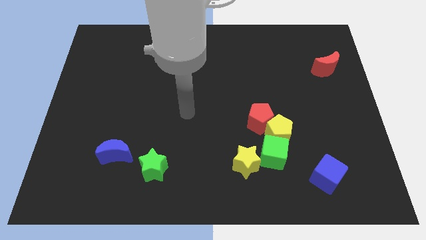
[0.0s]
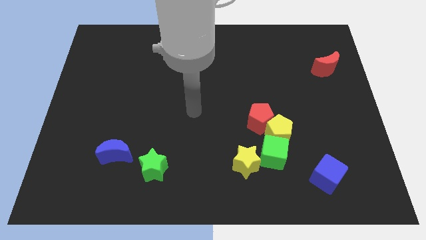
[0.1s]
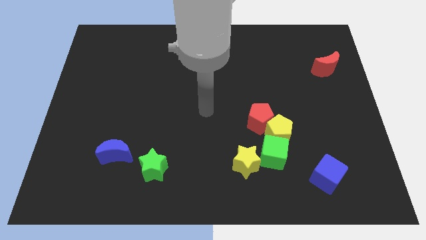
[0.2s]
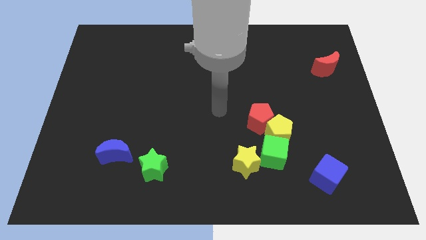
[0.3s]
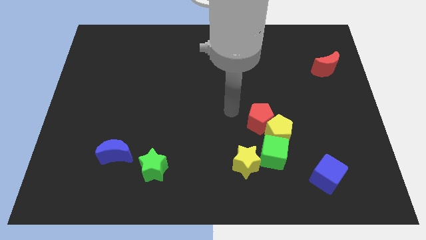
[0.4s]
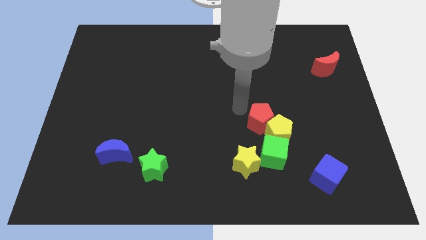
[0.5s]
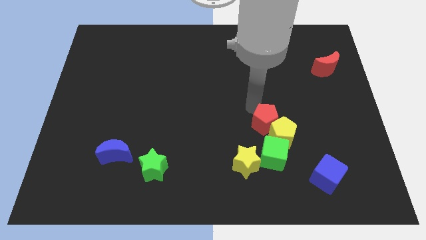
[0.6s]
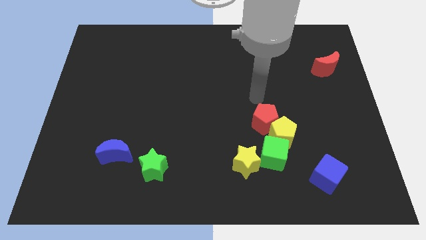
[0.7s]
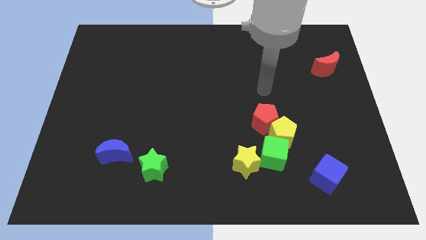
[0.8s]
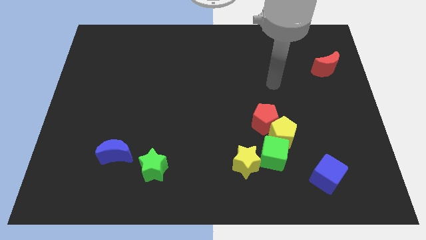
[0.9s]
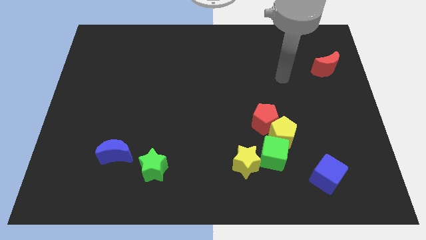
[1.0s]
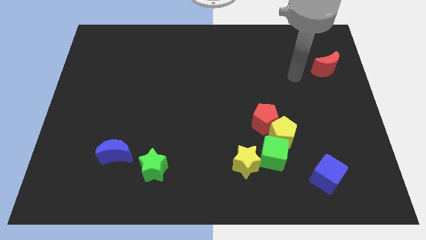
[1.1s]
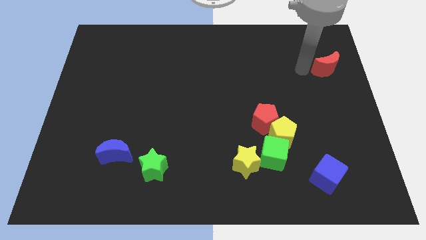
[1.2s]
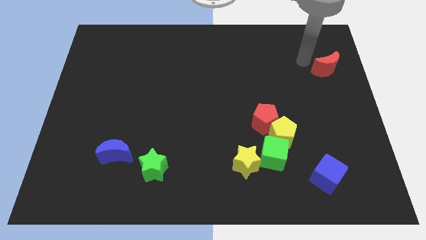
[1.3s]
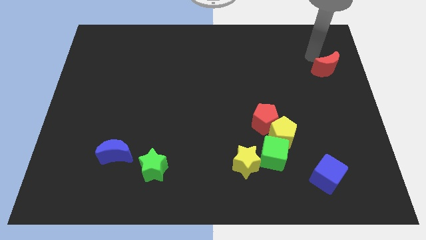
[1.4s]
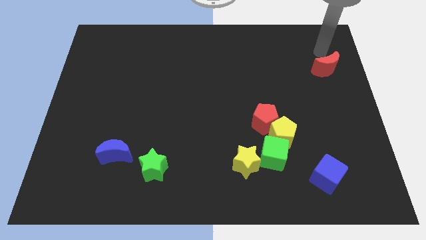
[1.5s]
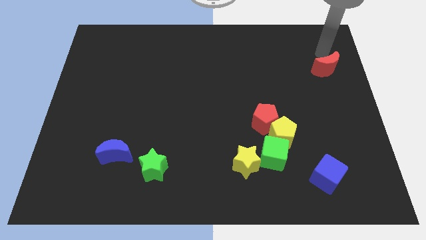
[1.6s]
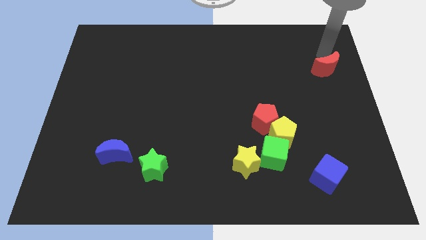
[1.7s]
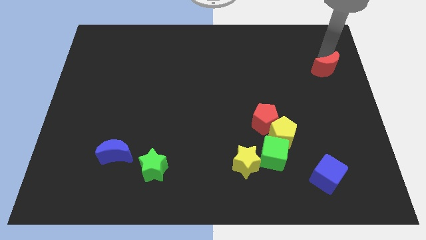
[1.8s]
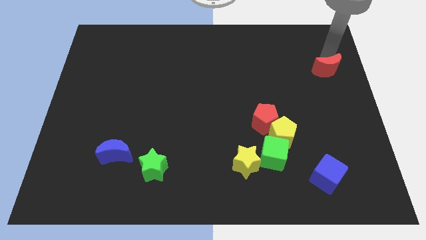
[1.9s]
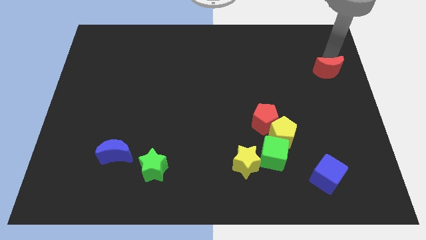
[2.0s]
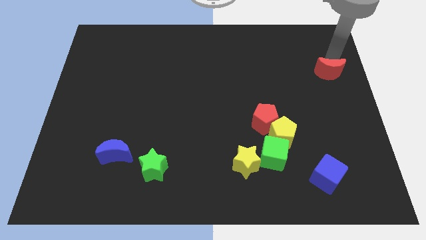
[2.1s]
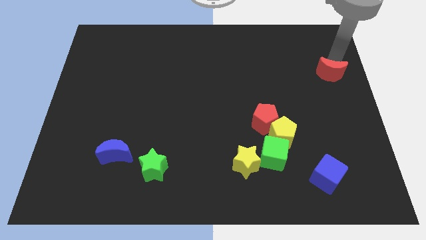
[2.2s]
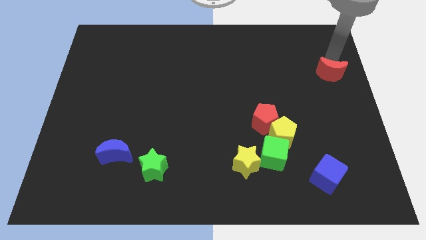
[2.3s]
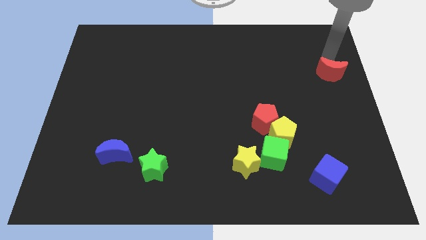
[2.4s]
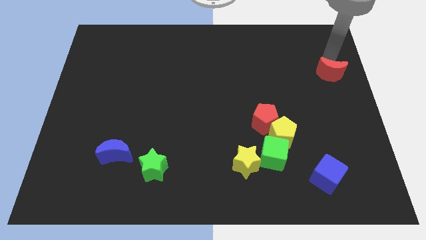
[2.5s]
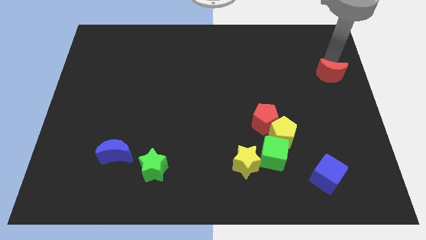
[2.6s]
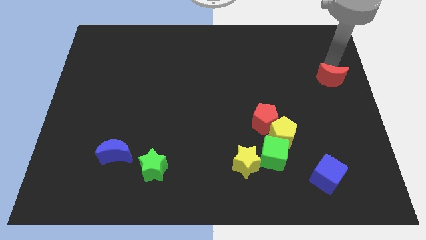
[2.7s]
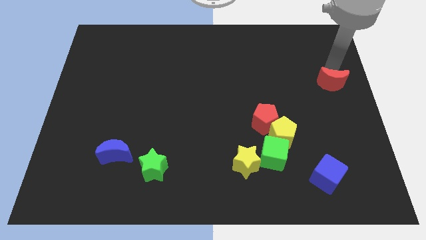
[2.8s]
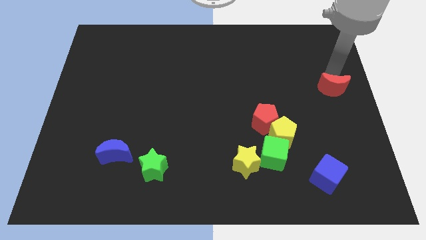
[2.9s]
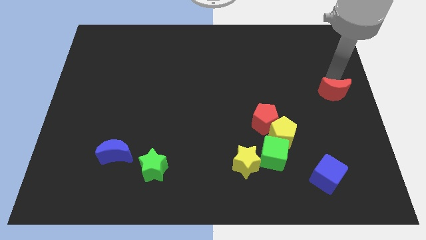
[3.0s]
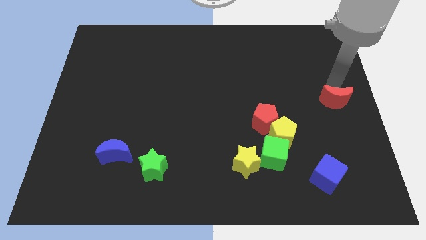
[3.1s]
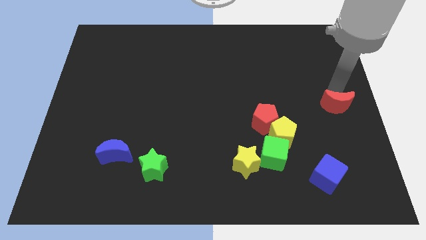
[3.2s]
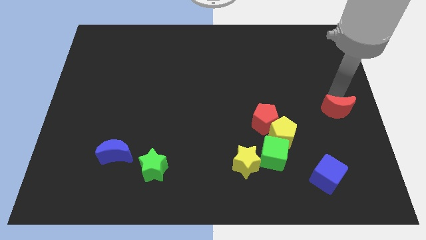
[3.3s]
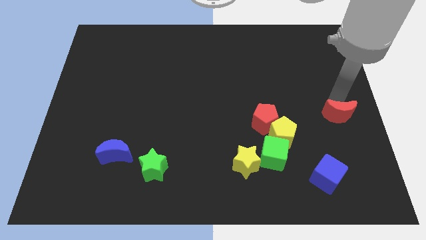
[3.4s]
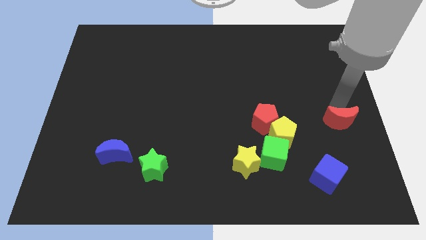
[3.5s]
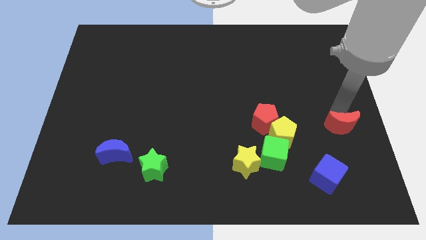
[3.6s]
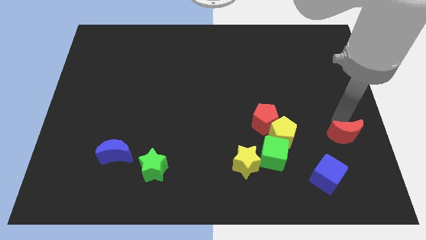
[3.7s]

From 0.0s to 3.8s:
push the red moon down

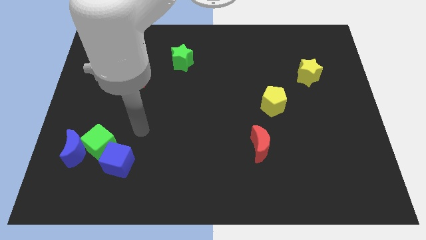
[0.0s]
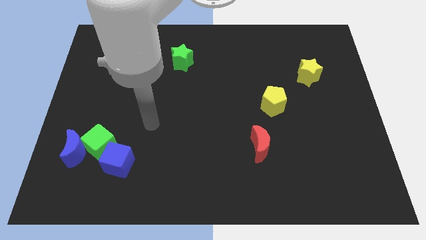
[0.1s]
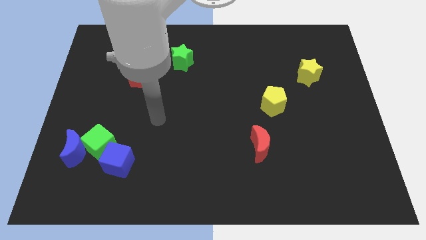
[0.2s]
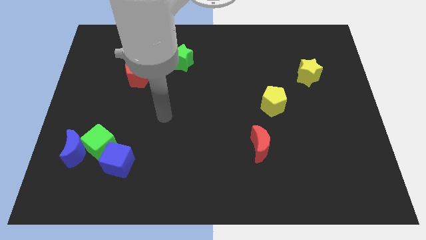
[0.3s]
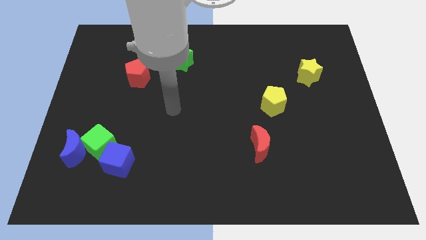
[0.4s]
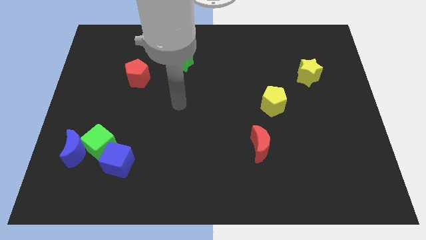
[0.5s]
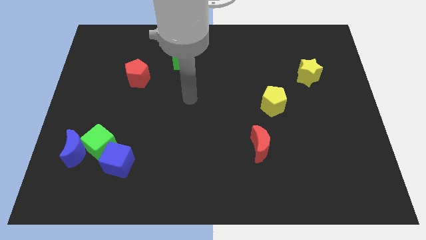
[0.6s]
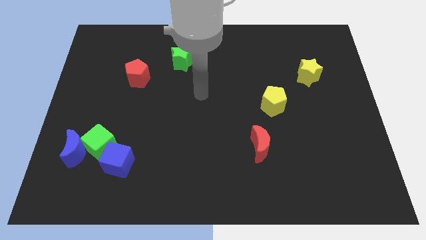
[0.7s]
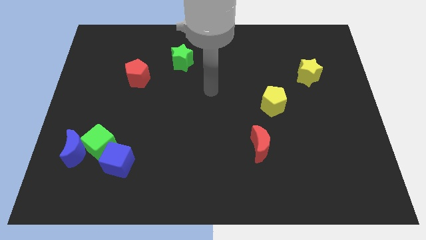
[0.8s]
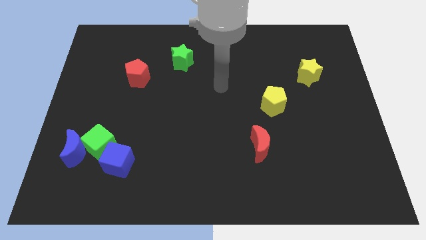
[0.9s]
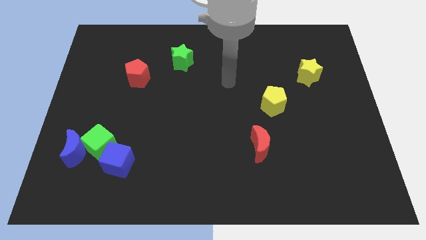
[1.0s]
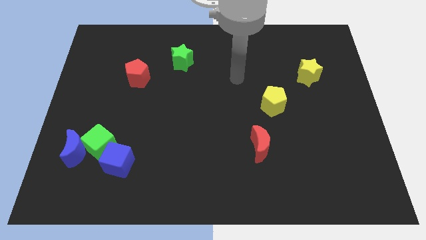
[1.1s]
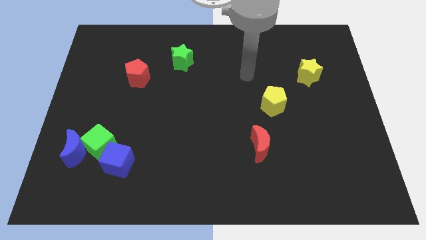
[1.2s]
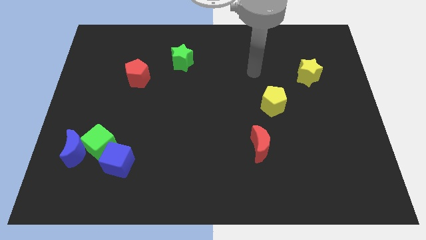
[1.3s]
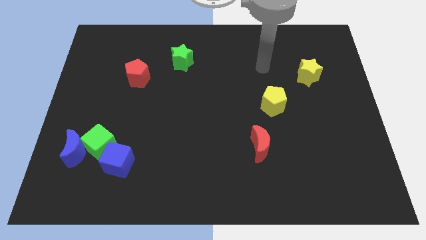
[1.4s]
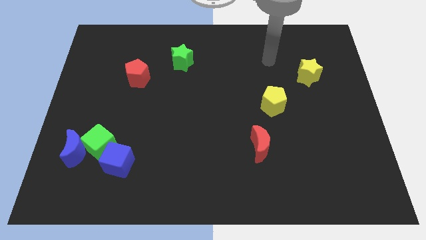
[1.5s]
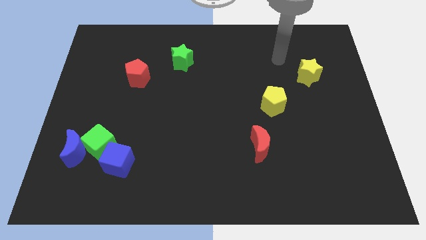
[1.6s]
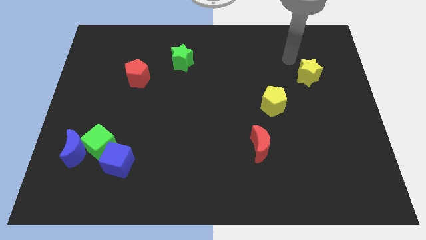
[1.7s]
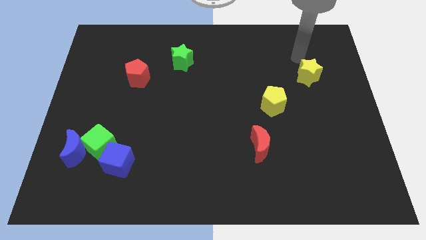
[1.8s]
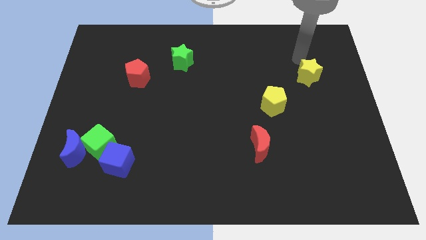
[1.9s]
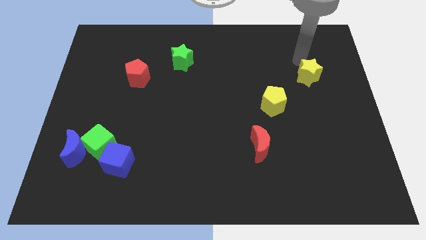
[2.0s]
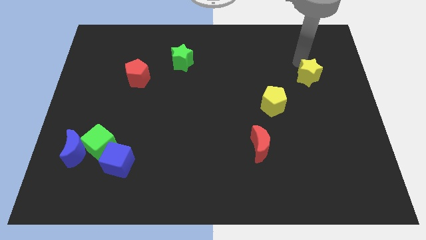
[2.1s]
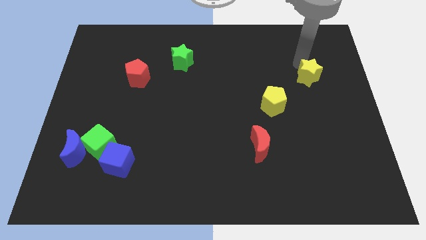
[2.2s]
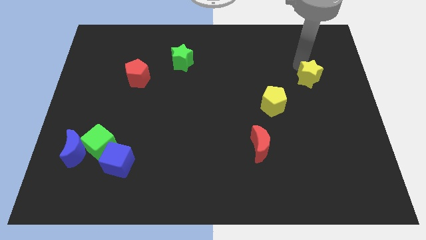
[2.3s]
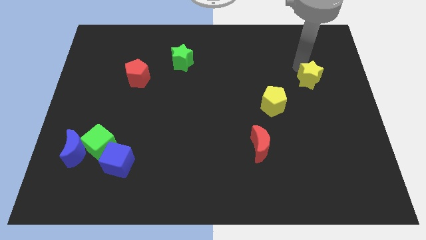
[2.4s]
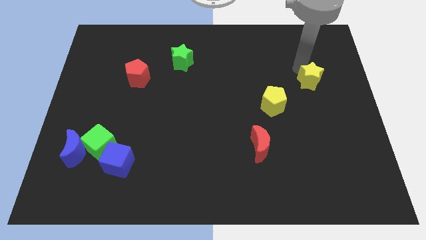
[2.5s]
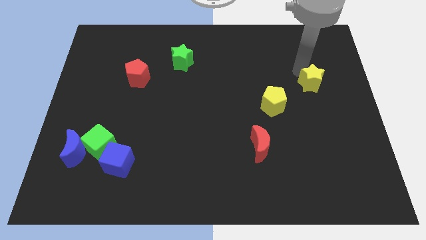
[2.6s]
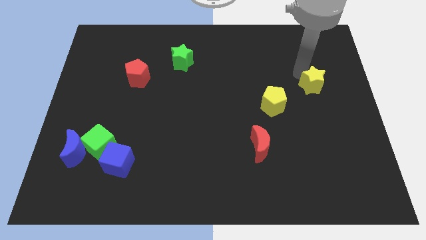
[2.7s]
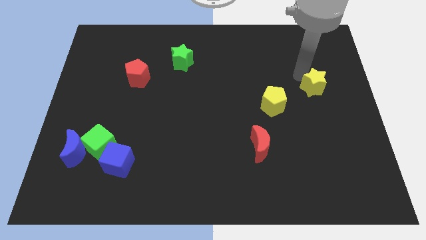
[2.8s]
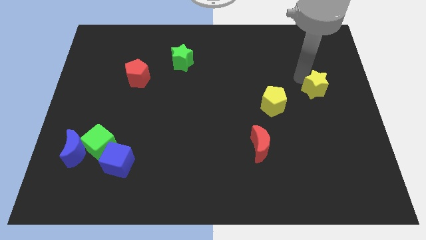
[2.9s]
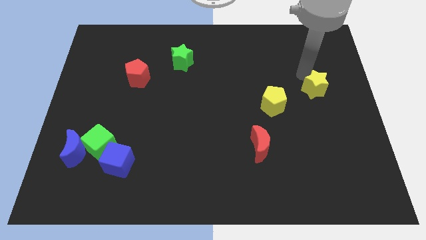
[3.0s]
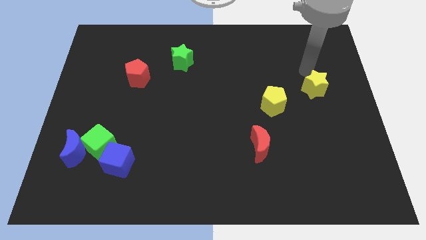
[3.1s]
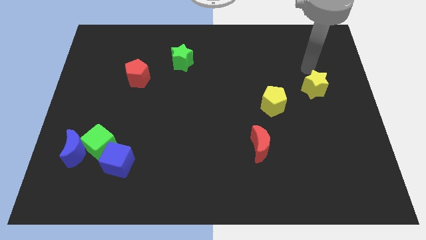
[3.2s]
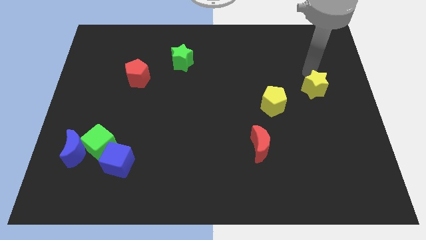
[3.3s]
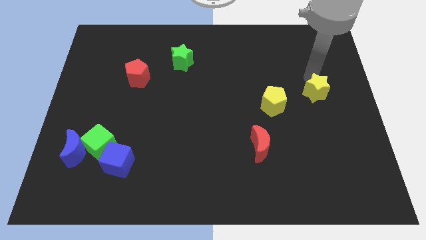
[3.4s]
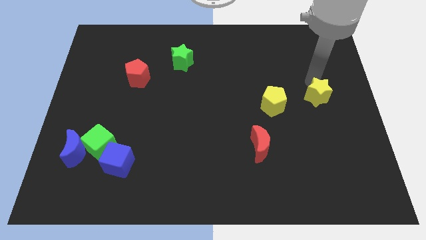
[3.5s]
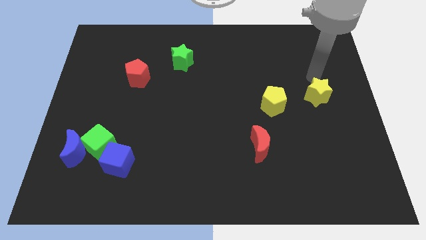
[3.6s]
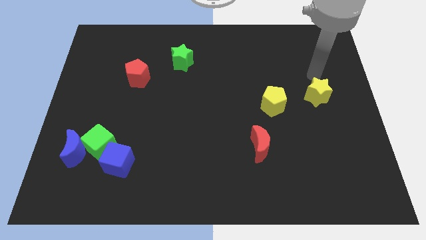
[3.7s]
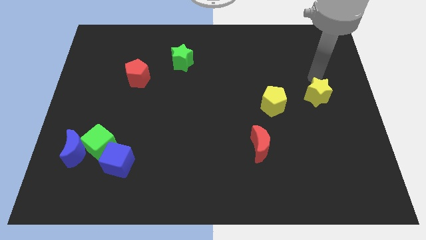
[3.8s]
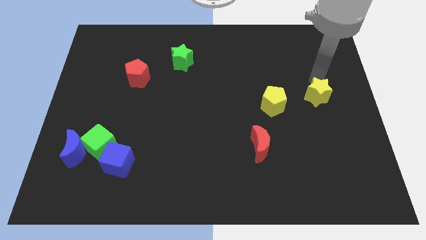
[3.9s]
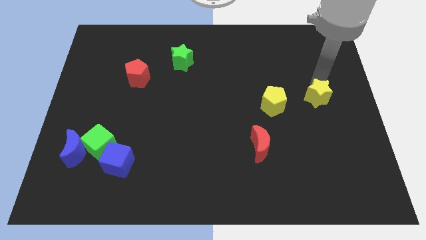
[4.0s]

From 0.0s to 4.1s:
slide the yellow star slightly downwards

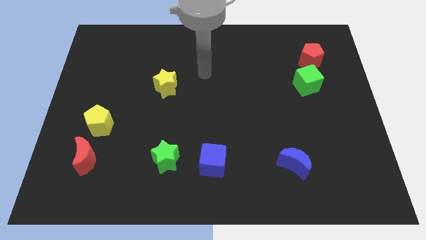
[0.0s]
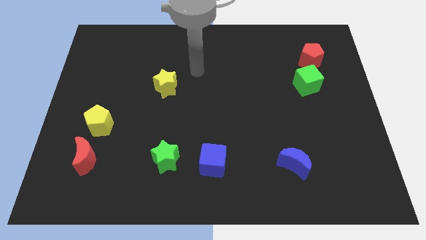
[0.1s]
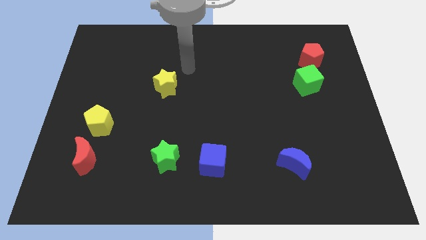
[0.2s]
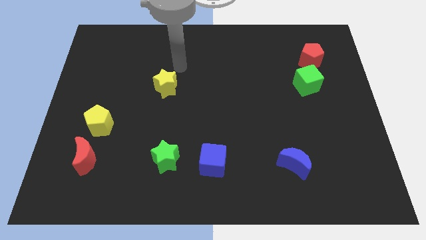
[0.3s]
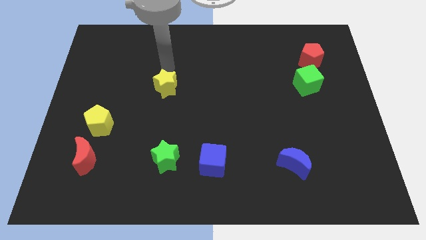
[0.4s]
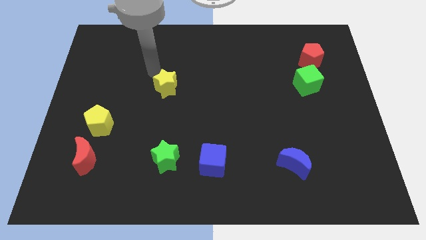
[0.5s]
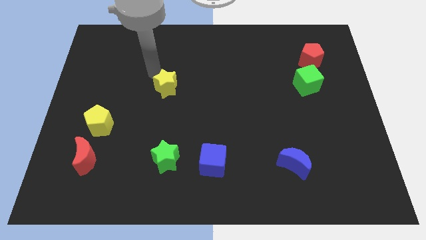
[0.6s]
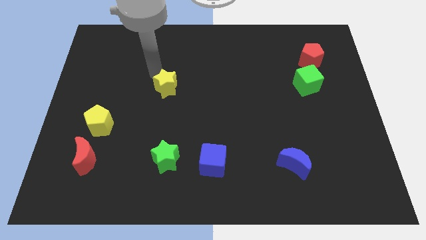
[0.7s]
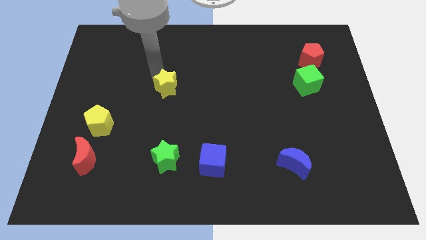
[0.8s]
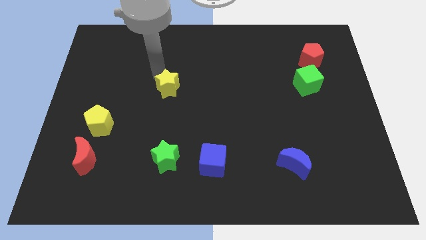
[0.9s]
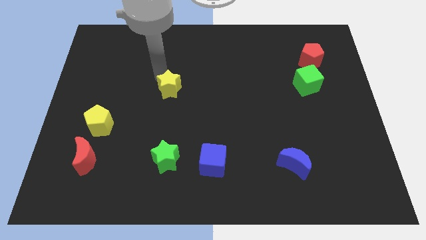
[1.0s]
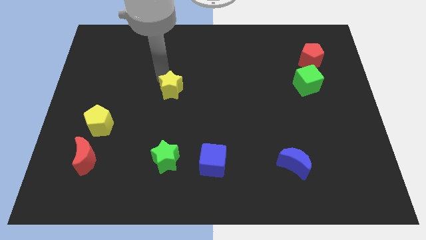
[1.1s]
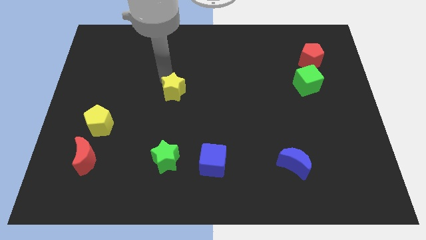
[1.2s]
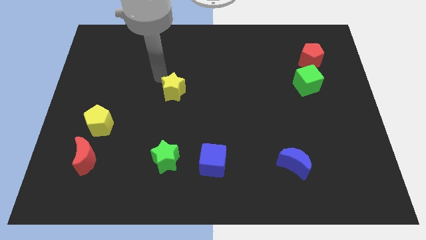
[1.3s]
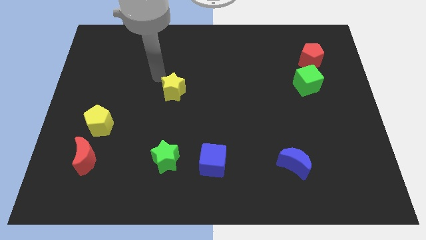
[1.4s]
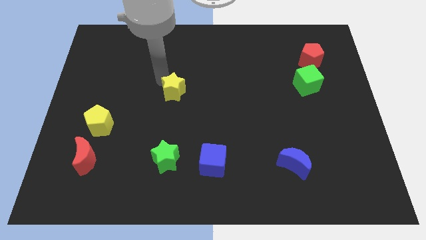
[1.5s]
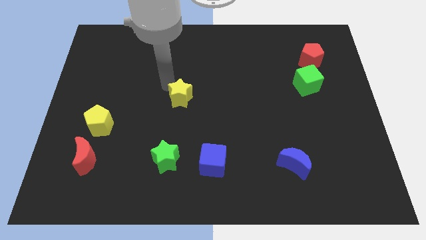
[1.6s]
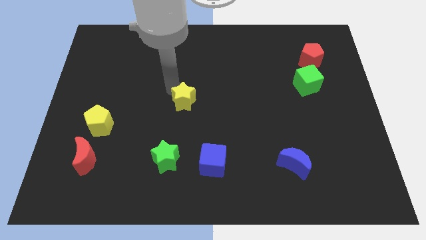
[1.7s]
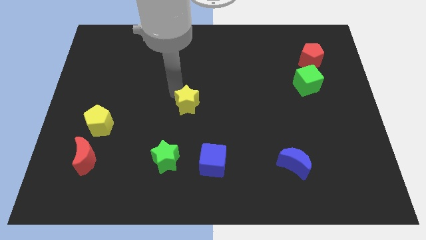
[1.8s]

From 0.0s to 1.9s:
slide the yellow star somewhat down and to the right
